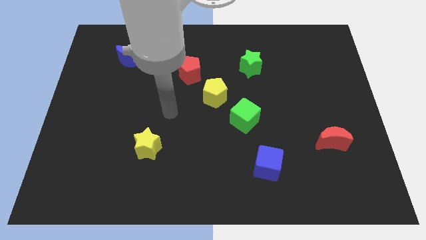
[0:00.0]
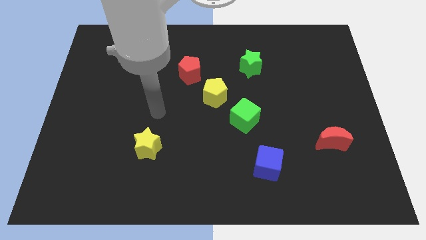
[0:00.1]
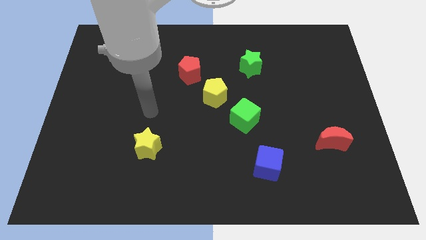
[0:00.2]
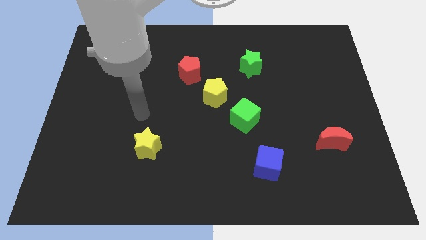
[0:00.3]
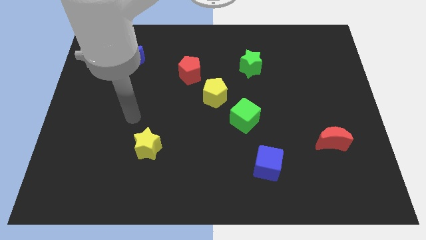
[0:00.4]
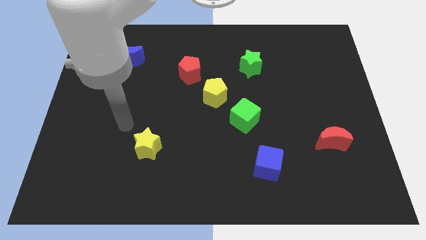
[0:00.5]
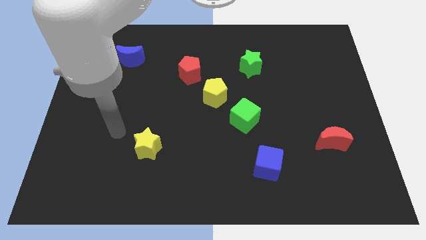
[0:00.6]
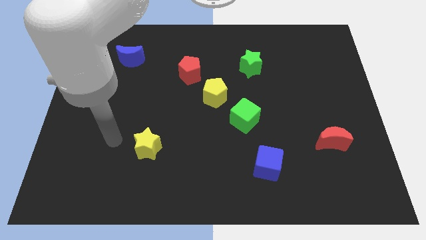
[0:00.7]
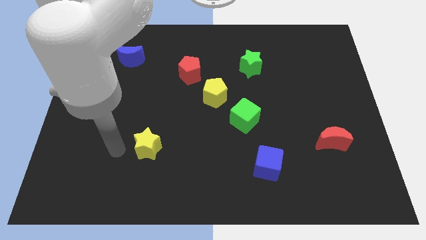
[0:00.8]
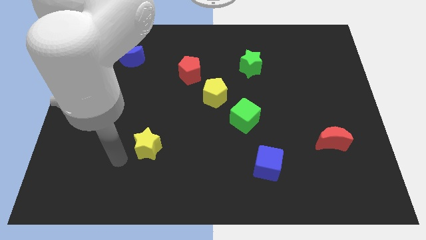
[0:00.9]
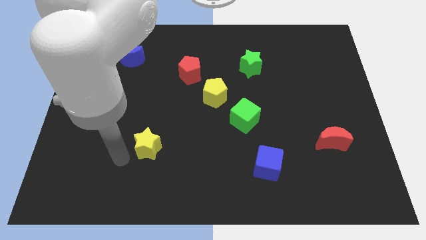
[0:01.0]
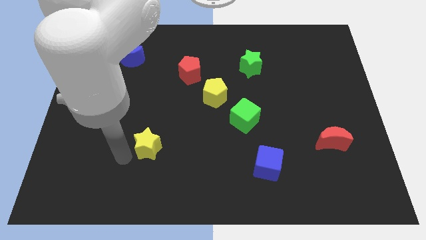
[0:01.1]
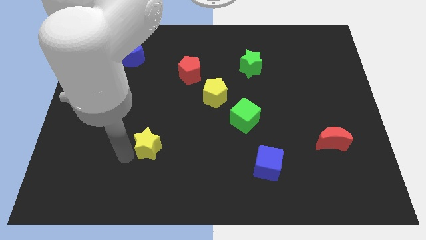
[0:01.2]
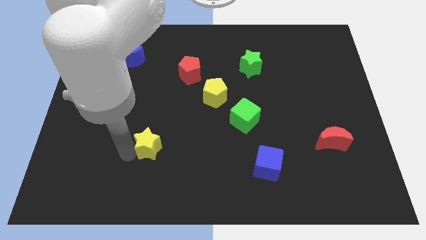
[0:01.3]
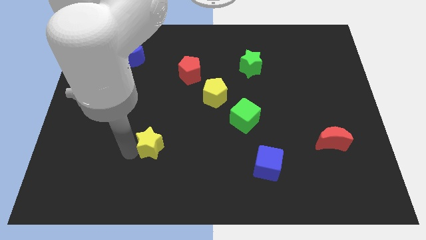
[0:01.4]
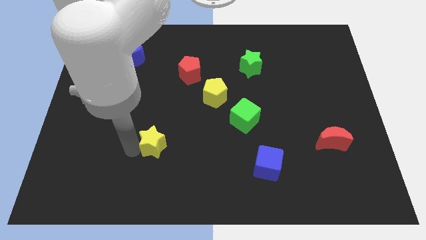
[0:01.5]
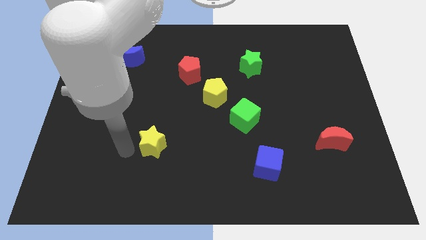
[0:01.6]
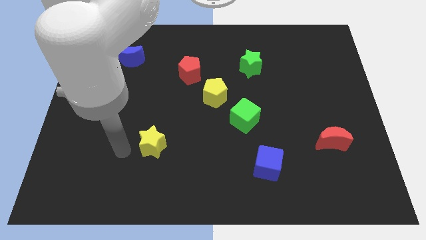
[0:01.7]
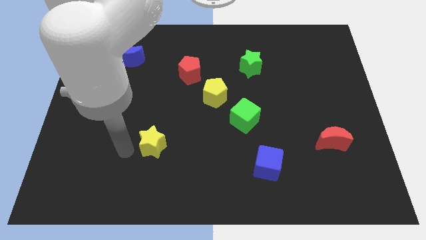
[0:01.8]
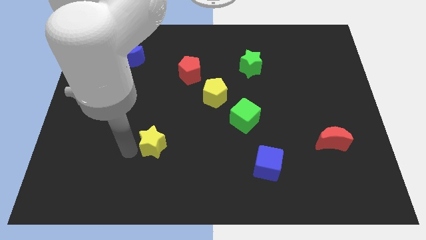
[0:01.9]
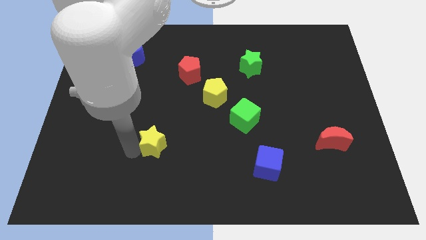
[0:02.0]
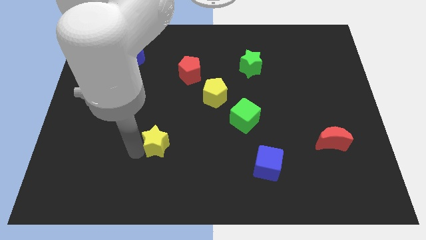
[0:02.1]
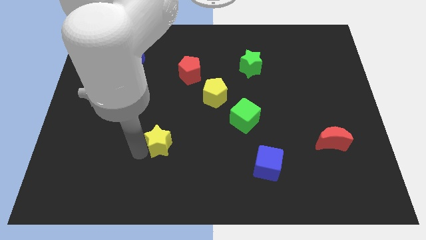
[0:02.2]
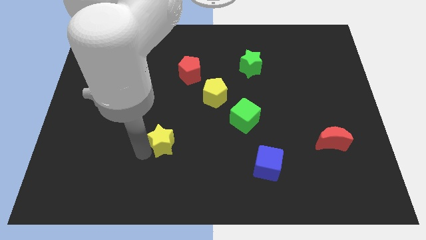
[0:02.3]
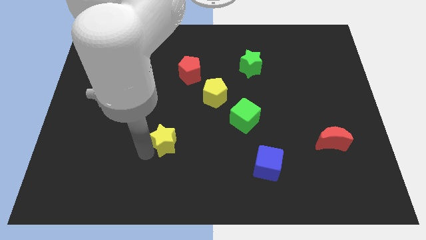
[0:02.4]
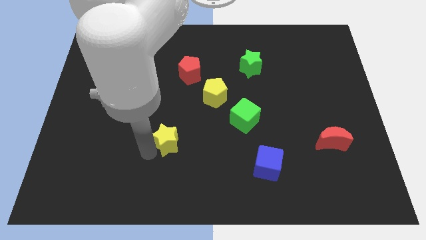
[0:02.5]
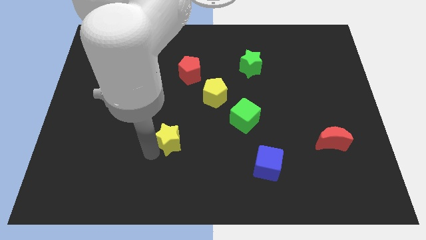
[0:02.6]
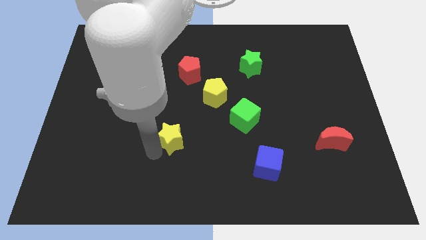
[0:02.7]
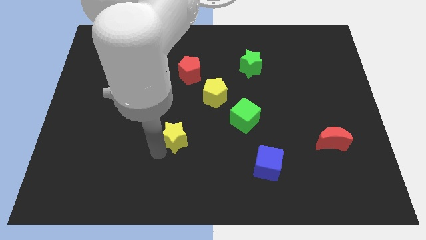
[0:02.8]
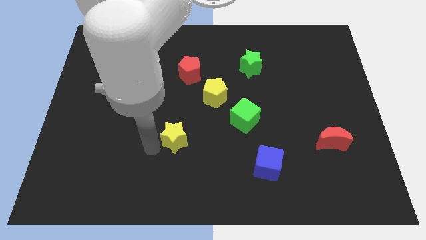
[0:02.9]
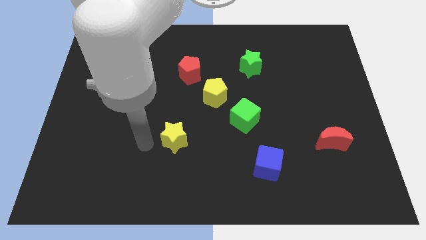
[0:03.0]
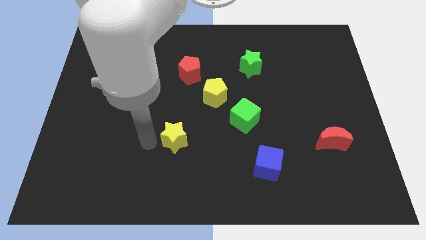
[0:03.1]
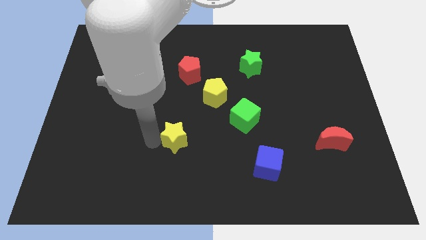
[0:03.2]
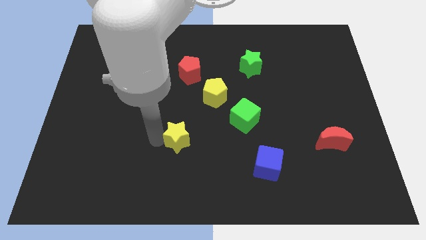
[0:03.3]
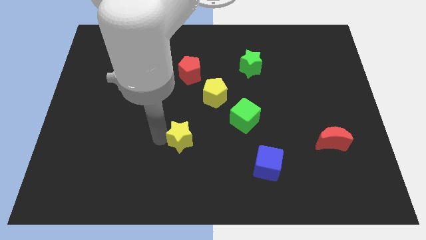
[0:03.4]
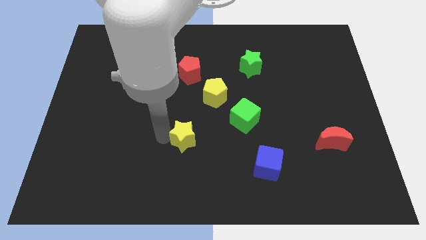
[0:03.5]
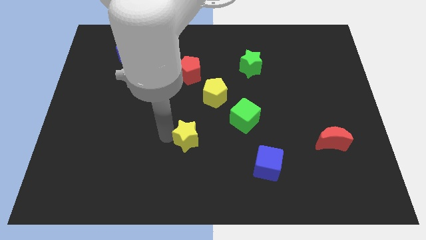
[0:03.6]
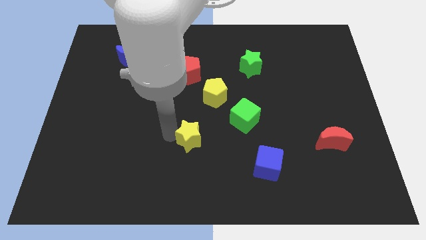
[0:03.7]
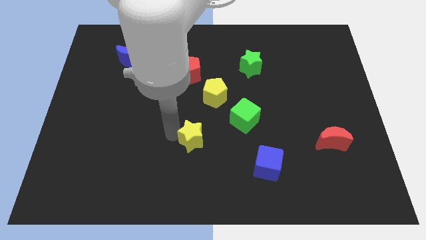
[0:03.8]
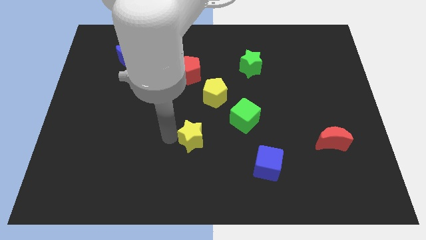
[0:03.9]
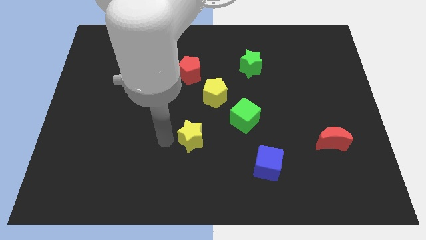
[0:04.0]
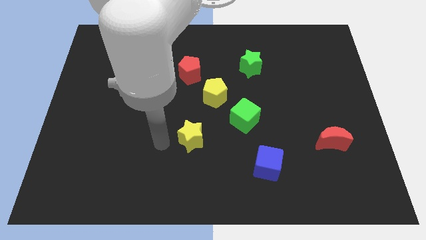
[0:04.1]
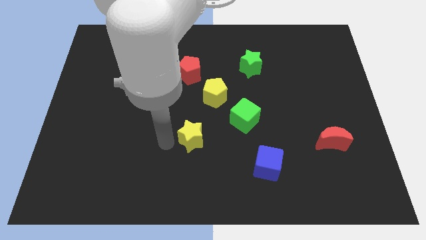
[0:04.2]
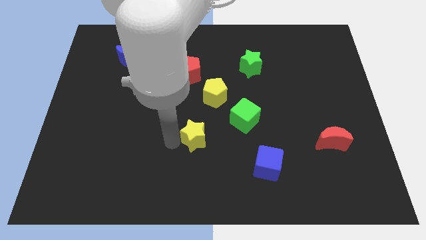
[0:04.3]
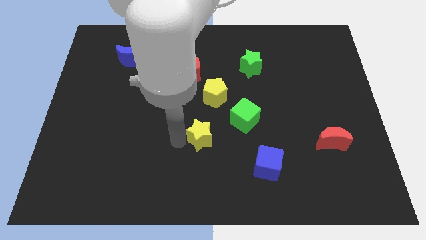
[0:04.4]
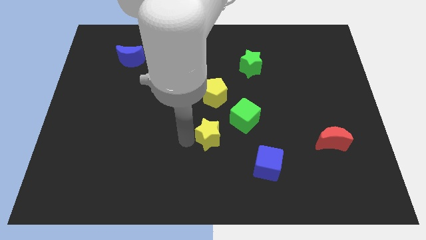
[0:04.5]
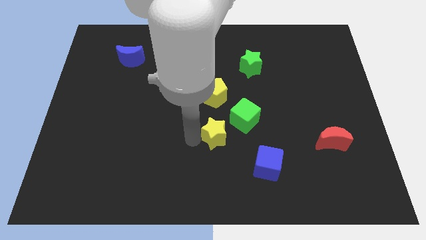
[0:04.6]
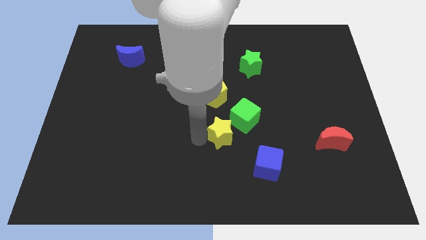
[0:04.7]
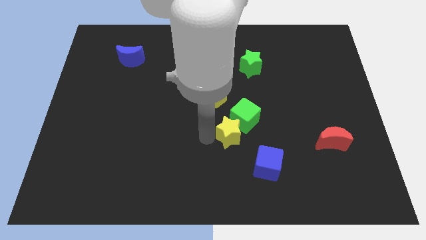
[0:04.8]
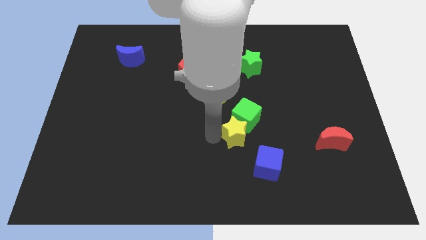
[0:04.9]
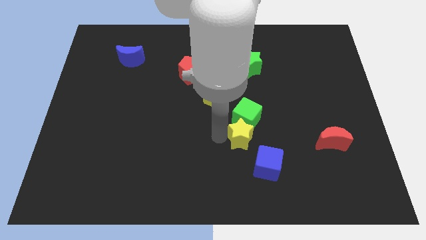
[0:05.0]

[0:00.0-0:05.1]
slide the yellow star right

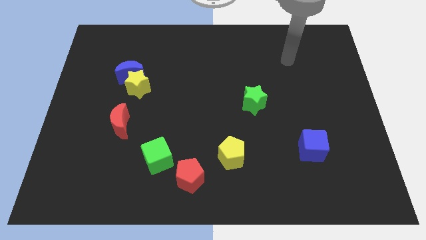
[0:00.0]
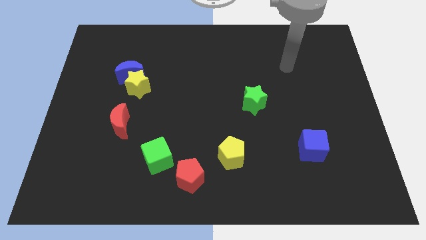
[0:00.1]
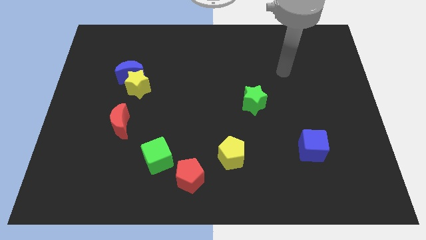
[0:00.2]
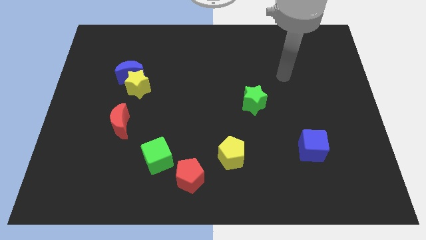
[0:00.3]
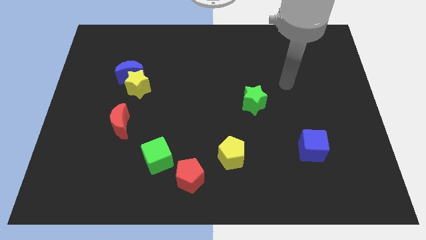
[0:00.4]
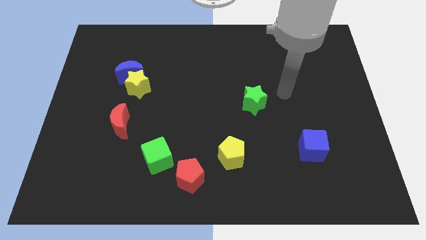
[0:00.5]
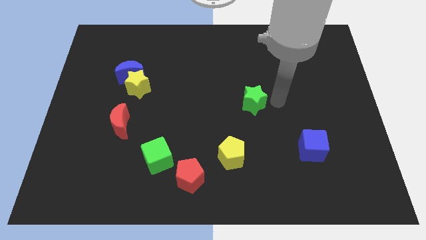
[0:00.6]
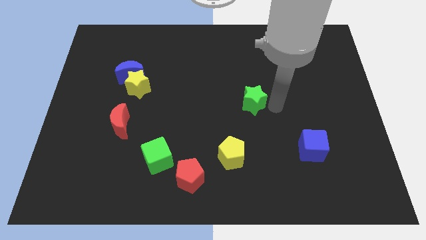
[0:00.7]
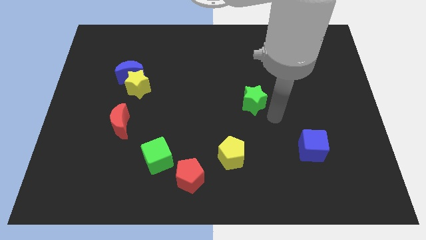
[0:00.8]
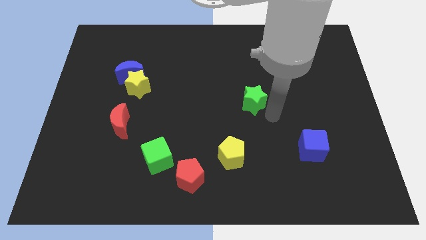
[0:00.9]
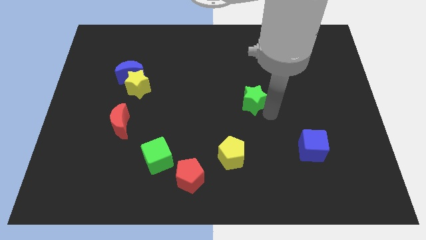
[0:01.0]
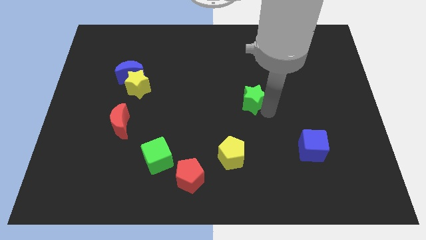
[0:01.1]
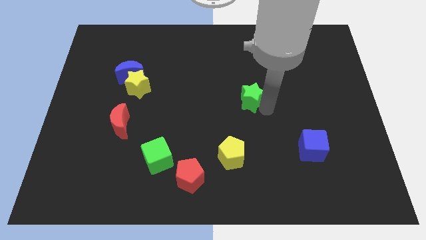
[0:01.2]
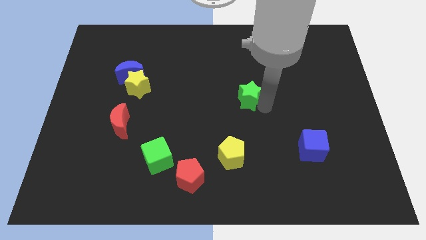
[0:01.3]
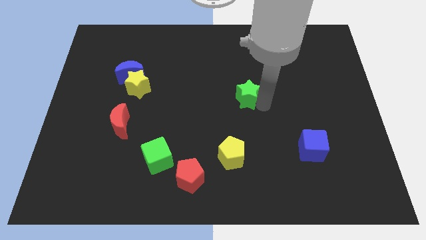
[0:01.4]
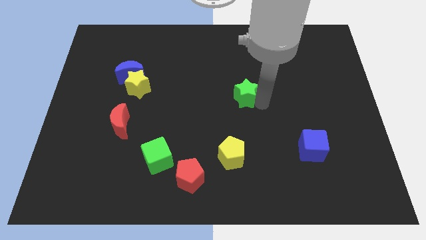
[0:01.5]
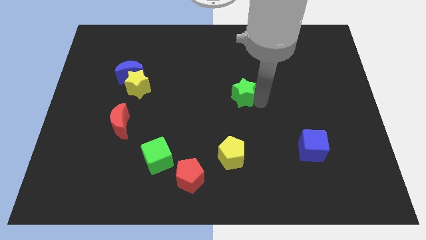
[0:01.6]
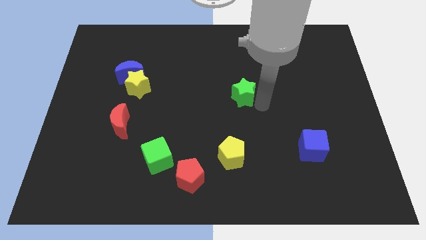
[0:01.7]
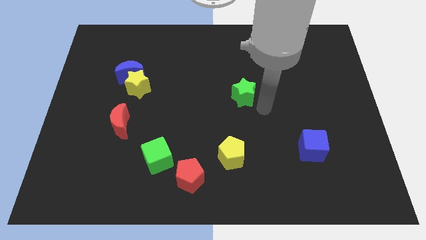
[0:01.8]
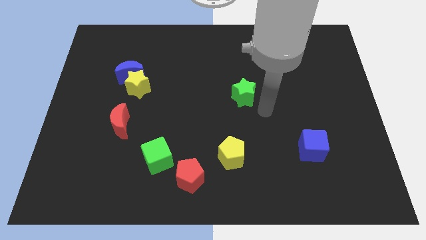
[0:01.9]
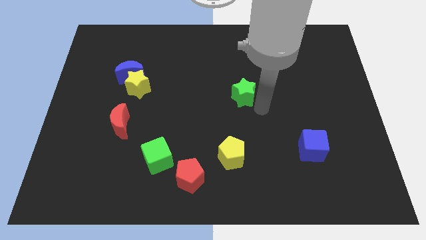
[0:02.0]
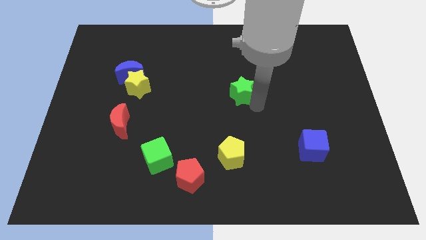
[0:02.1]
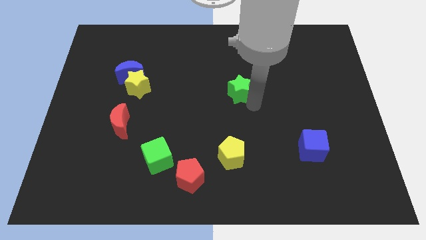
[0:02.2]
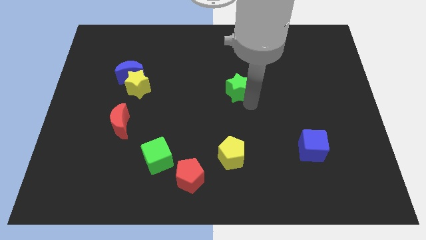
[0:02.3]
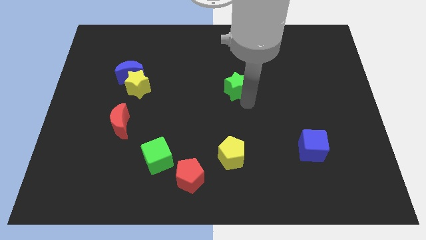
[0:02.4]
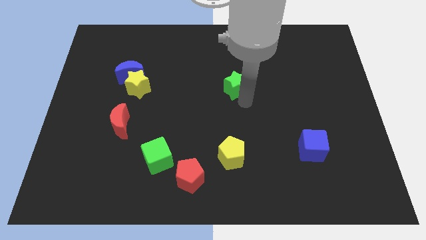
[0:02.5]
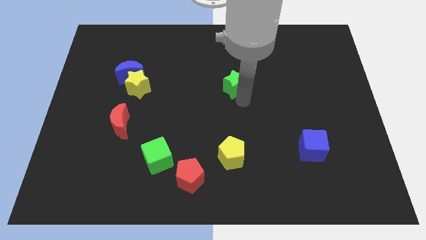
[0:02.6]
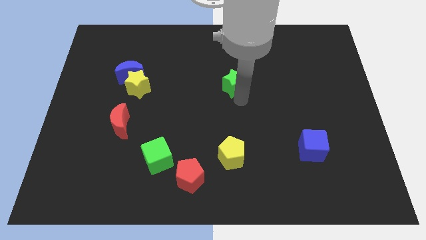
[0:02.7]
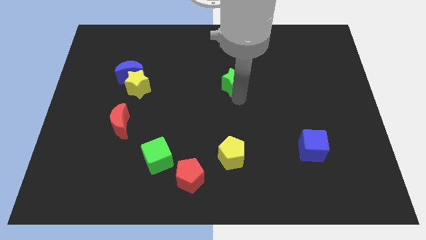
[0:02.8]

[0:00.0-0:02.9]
move the green star up and left a little

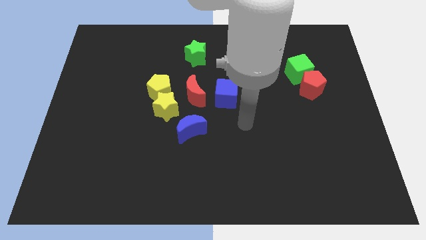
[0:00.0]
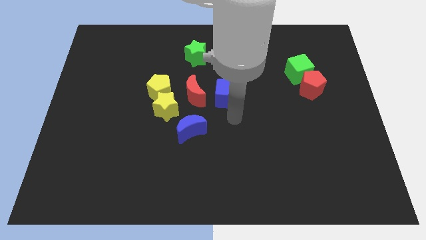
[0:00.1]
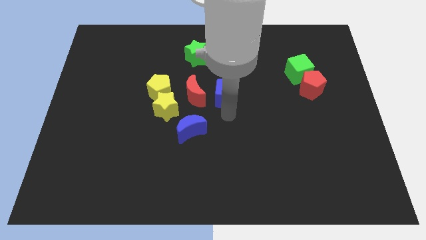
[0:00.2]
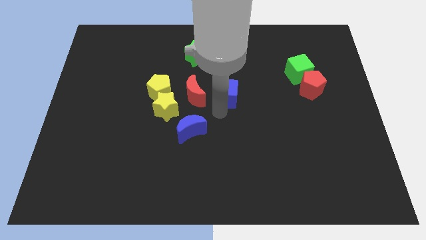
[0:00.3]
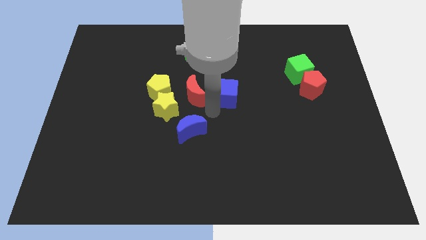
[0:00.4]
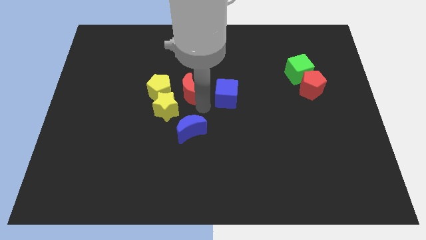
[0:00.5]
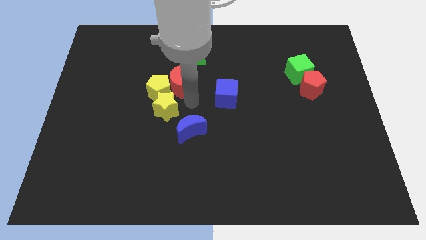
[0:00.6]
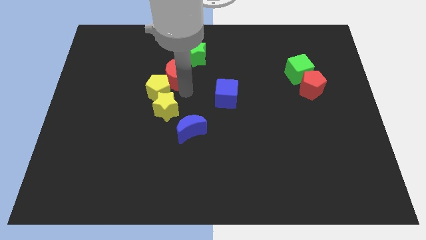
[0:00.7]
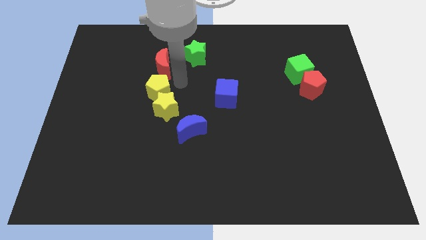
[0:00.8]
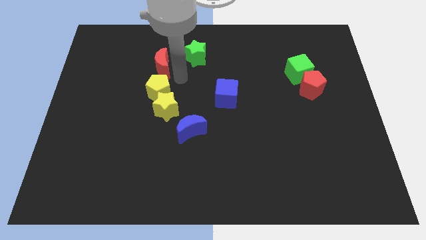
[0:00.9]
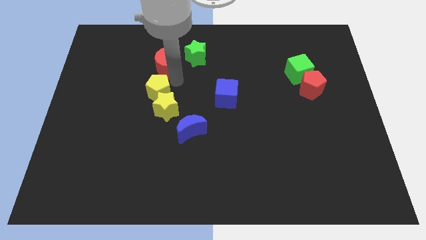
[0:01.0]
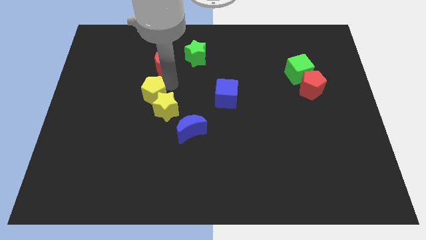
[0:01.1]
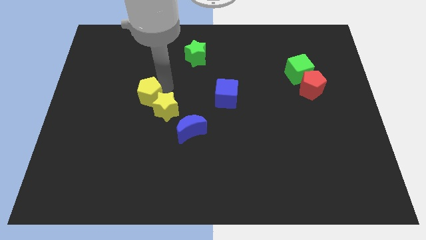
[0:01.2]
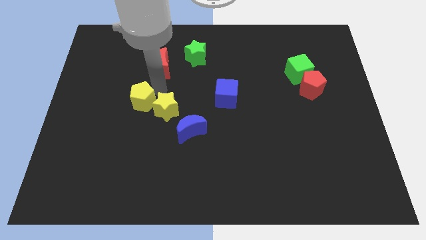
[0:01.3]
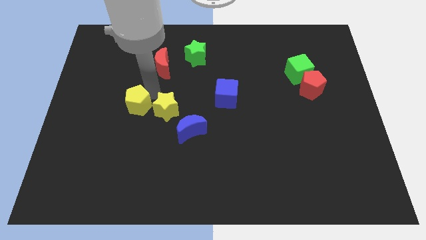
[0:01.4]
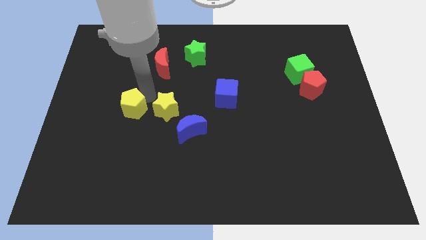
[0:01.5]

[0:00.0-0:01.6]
push the yellow pentagon down and then to the left a little bit
